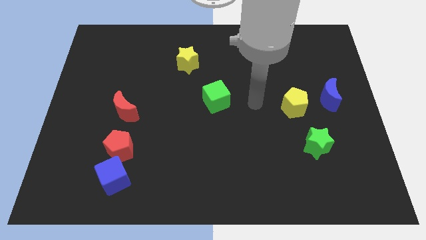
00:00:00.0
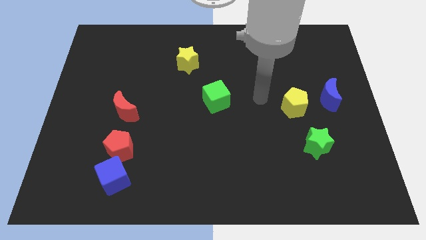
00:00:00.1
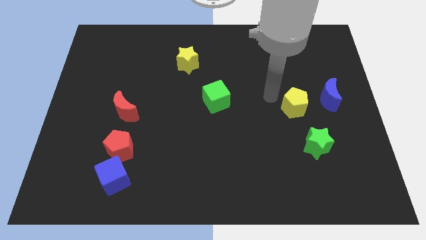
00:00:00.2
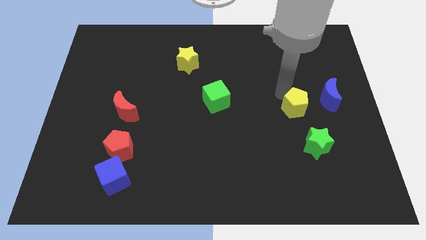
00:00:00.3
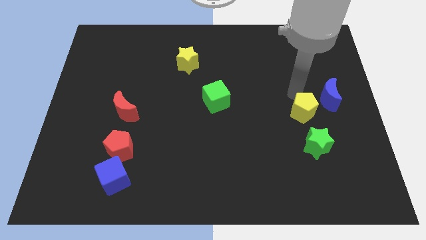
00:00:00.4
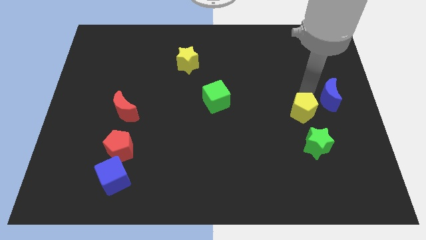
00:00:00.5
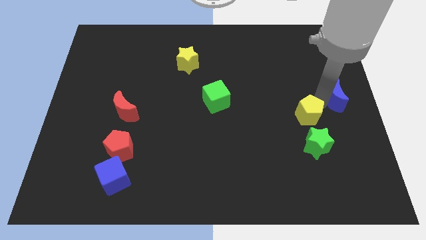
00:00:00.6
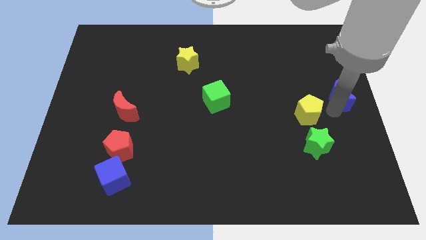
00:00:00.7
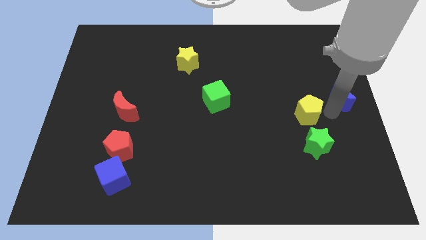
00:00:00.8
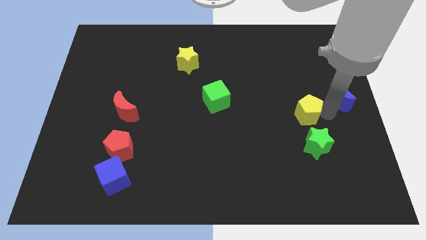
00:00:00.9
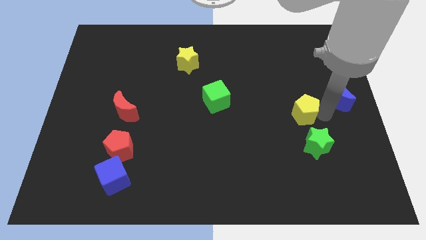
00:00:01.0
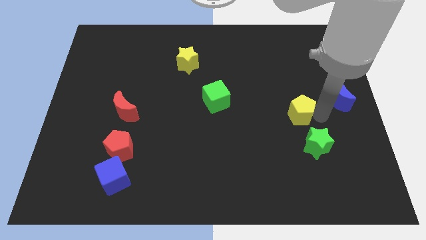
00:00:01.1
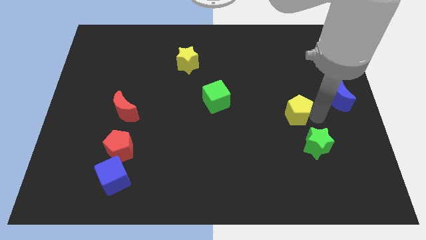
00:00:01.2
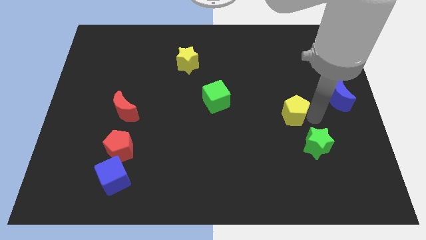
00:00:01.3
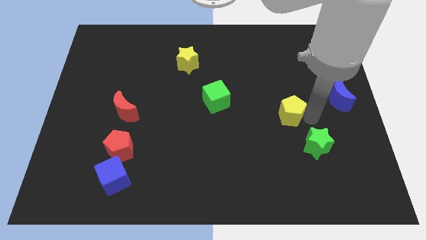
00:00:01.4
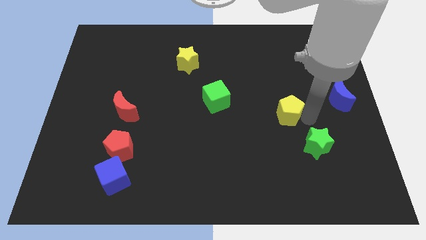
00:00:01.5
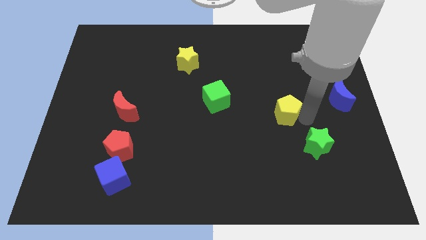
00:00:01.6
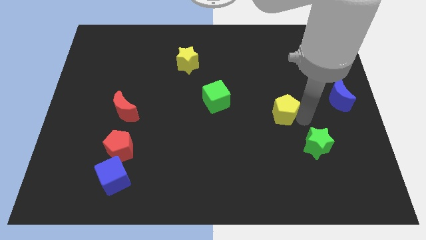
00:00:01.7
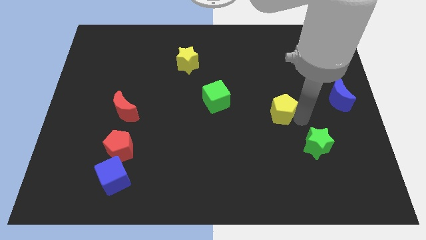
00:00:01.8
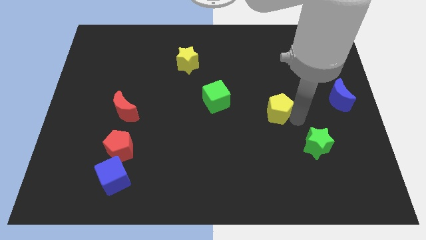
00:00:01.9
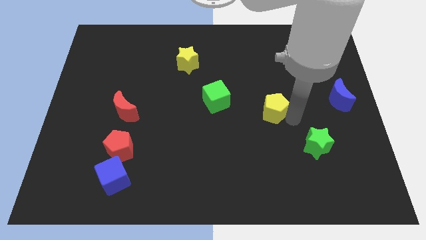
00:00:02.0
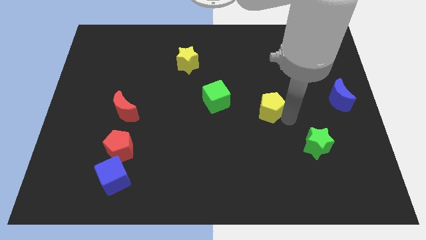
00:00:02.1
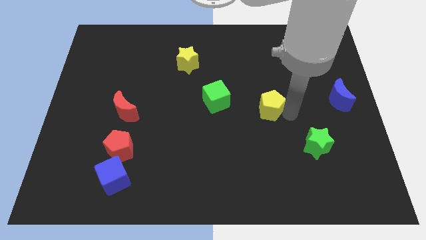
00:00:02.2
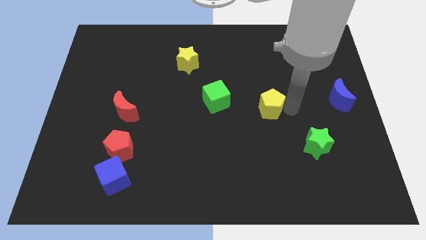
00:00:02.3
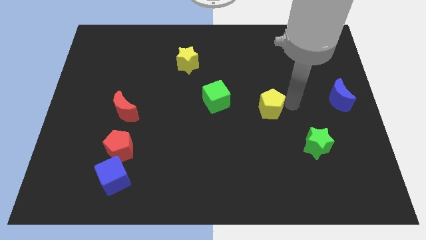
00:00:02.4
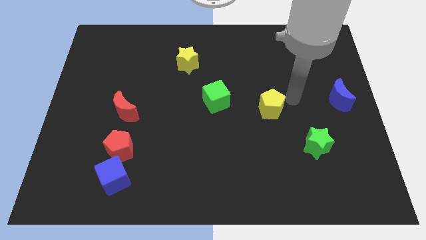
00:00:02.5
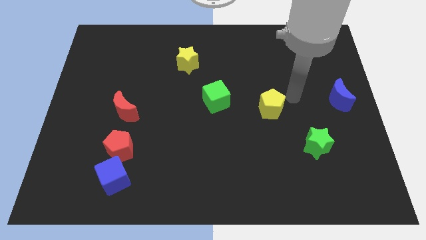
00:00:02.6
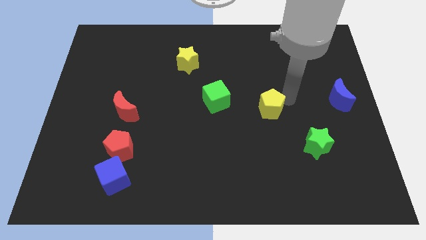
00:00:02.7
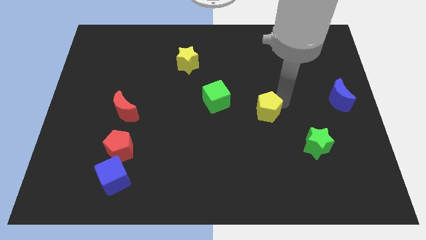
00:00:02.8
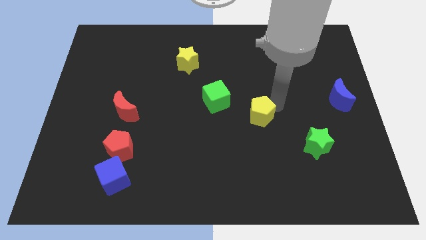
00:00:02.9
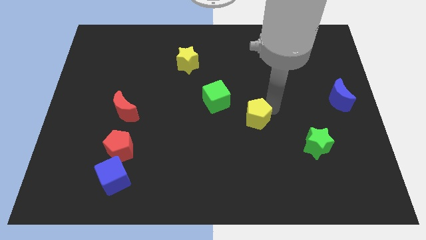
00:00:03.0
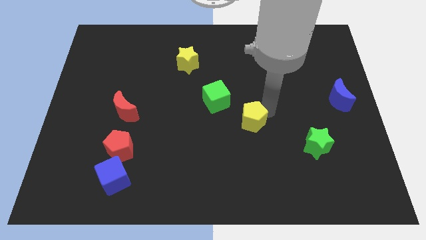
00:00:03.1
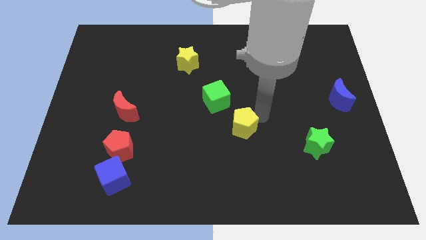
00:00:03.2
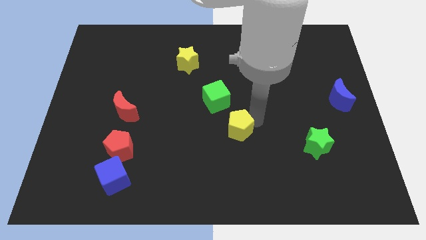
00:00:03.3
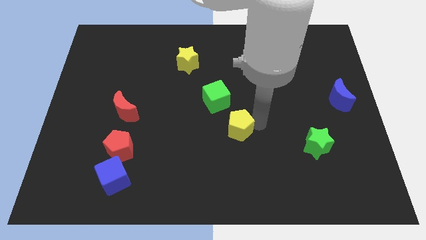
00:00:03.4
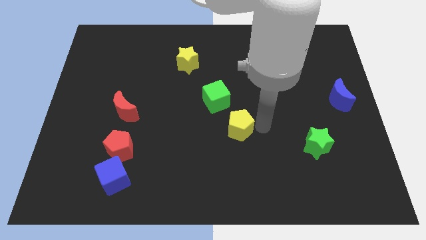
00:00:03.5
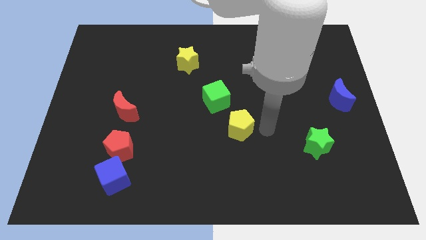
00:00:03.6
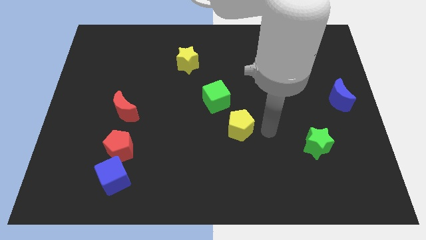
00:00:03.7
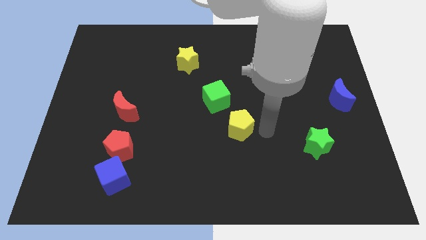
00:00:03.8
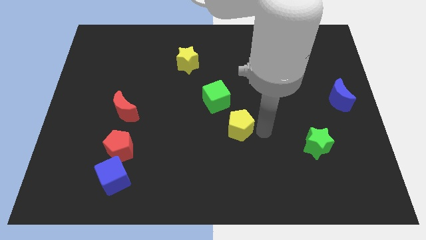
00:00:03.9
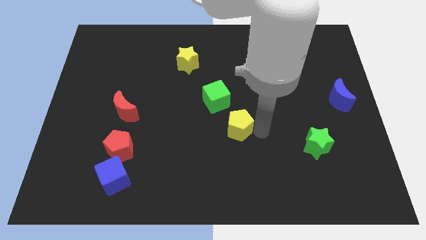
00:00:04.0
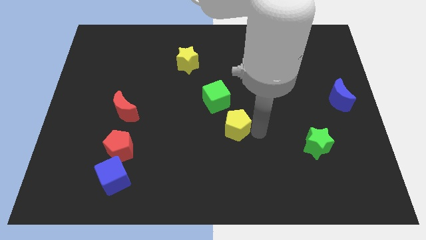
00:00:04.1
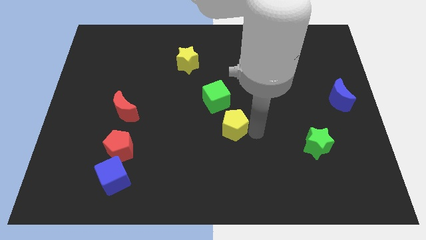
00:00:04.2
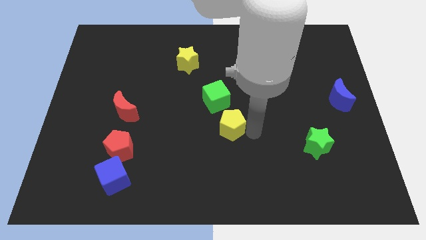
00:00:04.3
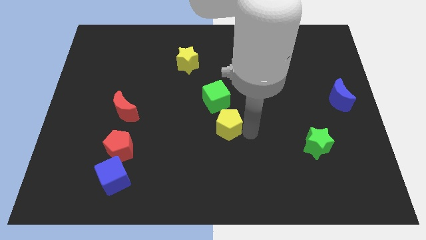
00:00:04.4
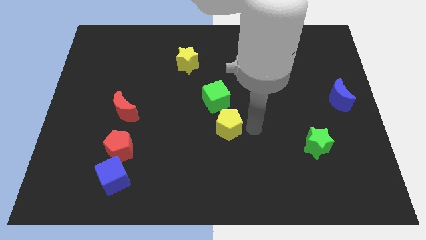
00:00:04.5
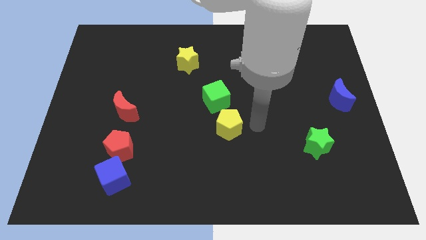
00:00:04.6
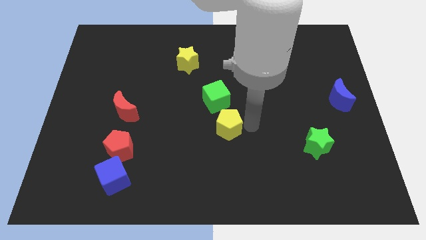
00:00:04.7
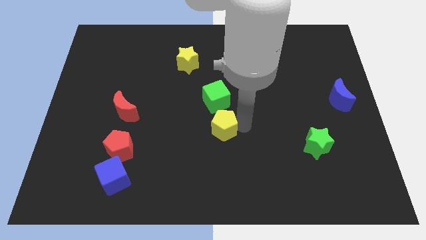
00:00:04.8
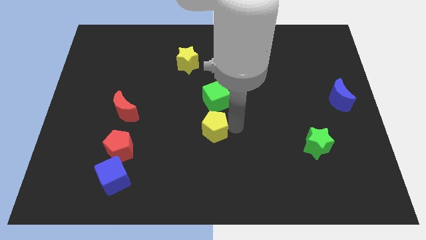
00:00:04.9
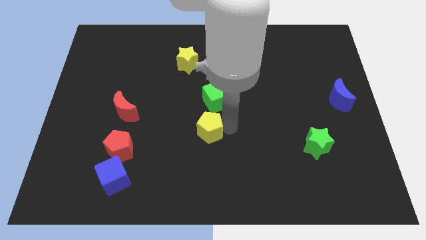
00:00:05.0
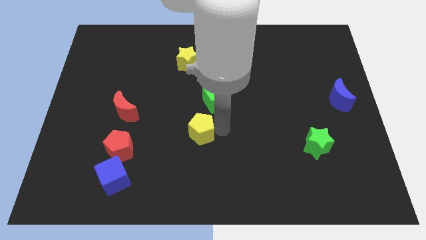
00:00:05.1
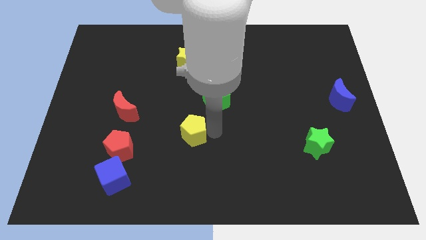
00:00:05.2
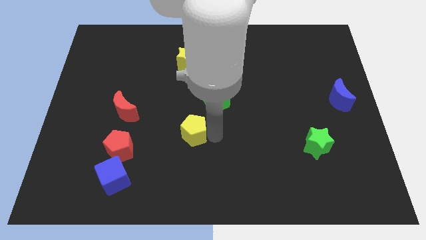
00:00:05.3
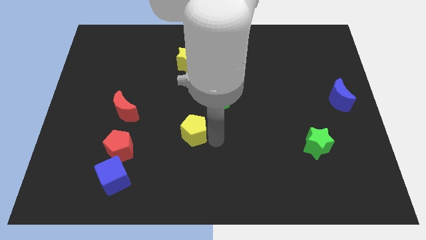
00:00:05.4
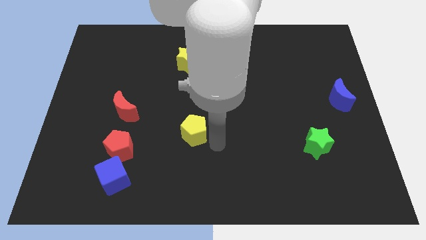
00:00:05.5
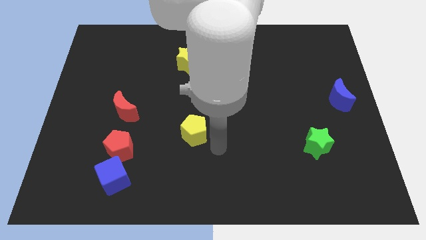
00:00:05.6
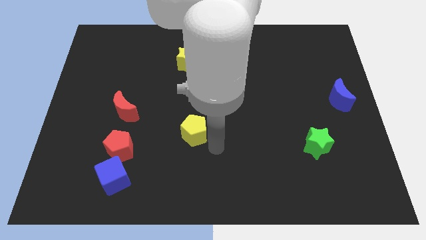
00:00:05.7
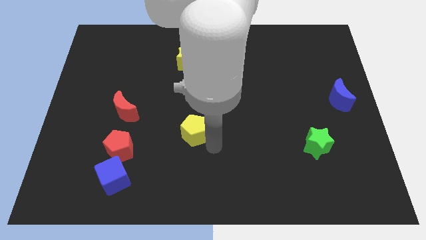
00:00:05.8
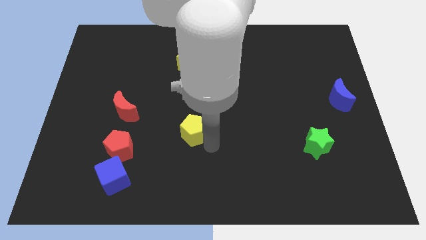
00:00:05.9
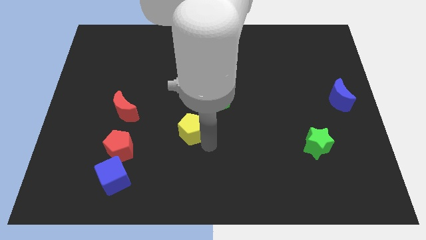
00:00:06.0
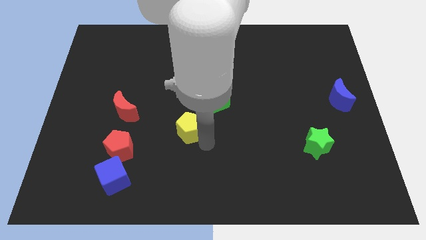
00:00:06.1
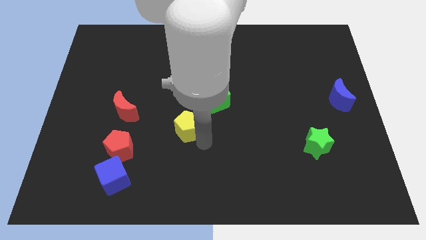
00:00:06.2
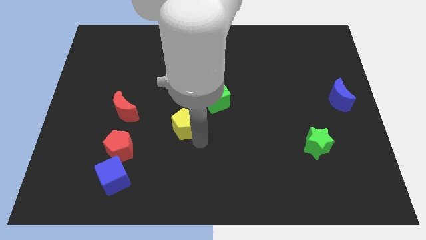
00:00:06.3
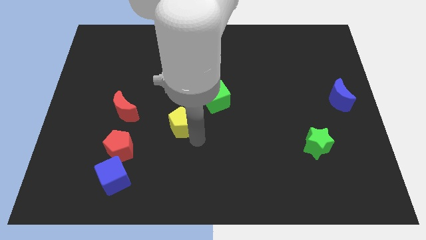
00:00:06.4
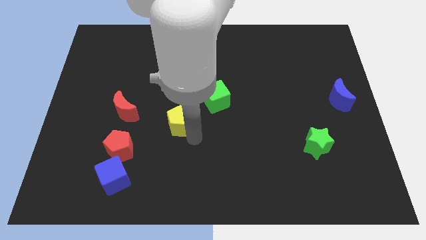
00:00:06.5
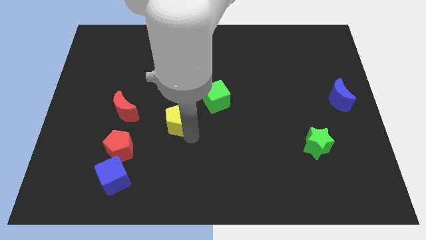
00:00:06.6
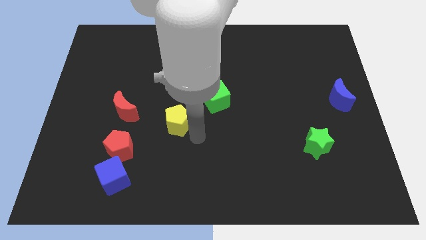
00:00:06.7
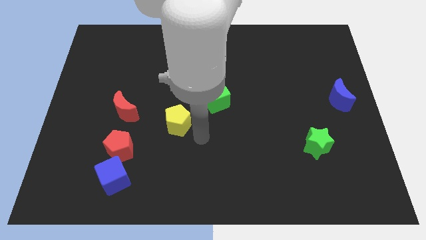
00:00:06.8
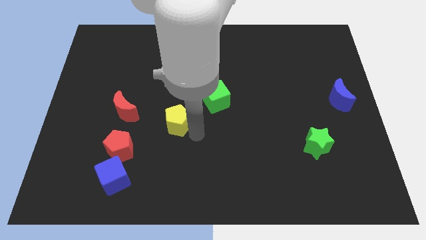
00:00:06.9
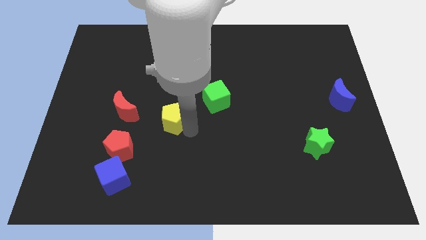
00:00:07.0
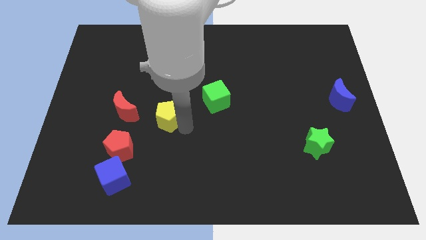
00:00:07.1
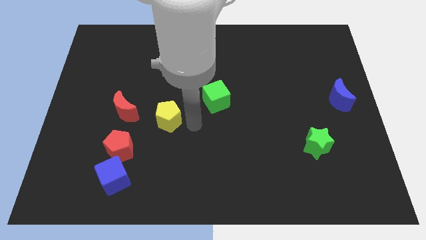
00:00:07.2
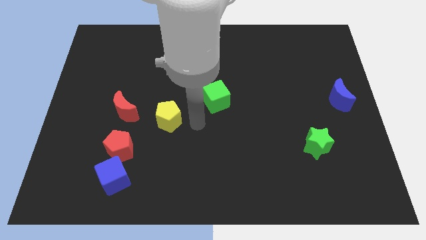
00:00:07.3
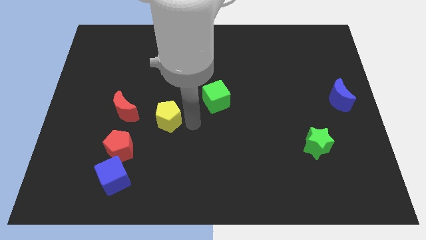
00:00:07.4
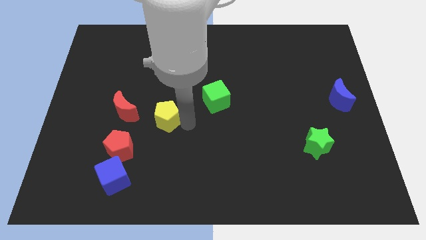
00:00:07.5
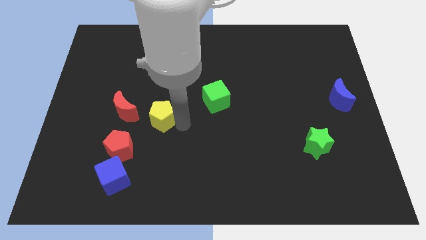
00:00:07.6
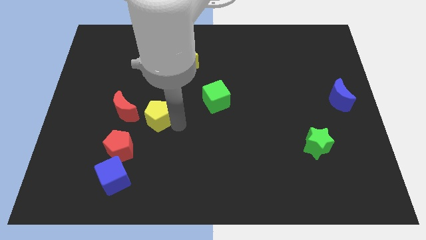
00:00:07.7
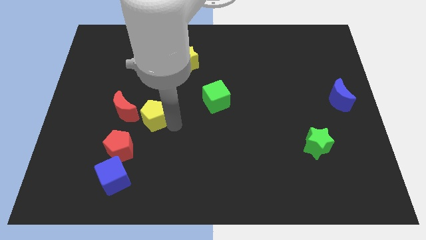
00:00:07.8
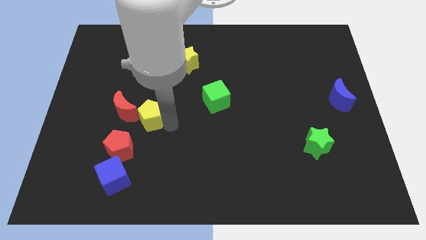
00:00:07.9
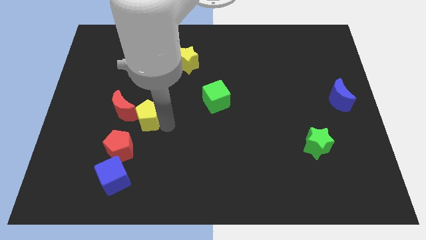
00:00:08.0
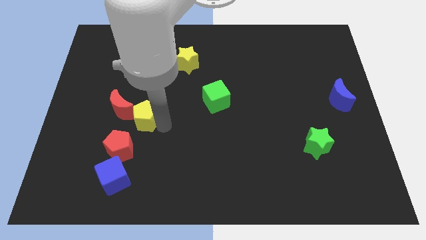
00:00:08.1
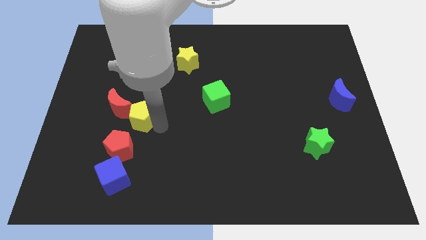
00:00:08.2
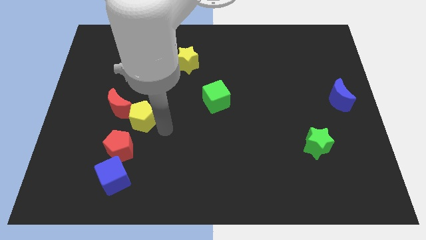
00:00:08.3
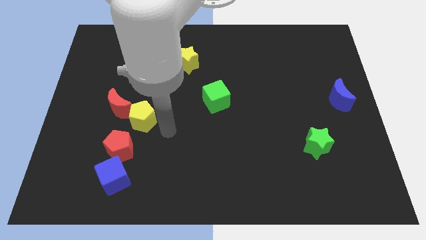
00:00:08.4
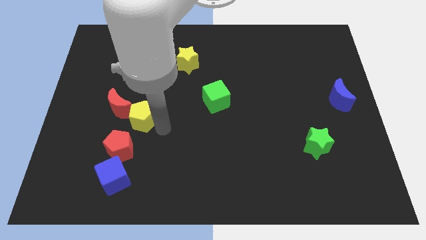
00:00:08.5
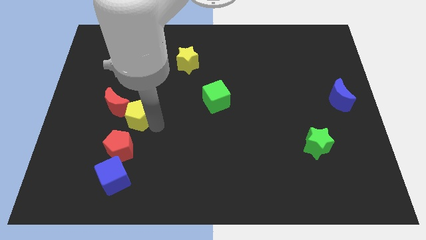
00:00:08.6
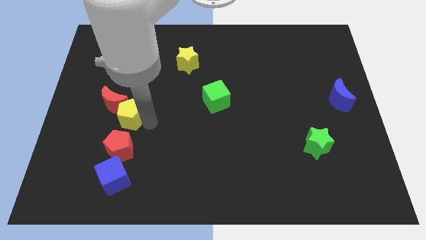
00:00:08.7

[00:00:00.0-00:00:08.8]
move the yellow pentagon towards the red moon
